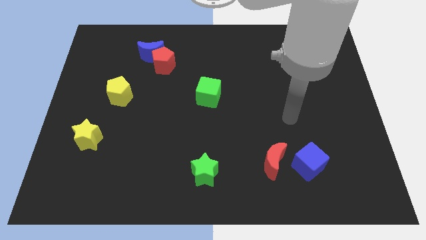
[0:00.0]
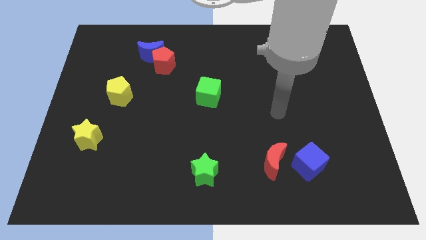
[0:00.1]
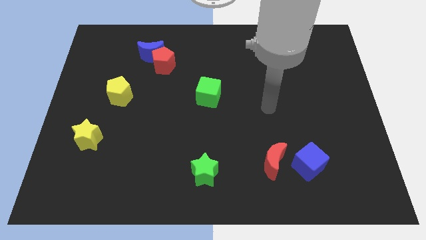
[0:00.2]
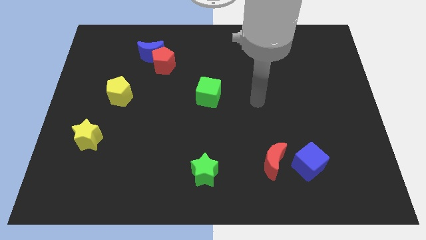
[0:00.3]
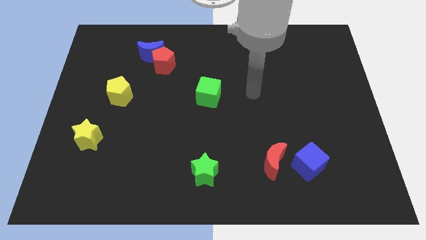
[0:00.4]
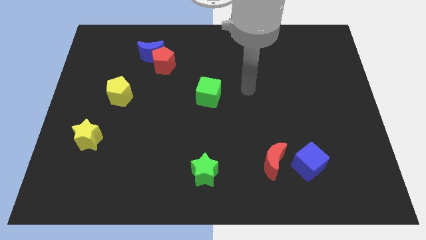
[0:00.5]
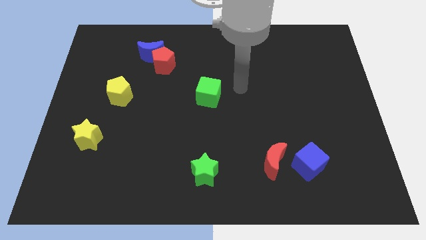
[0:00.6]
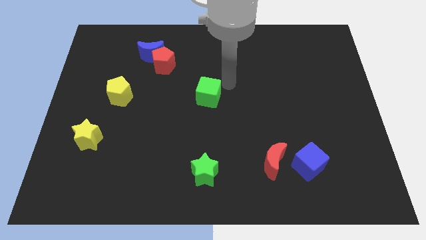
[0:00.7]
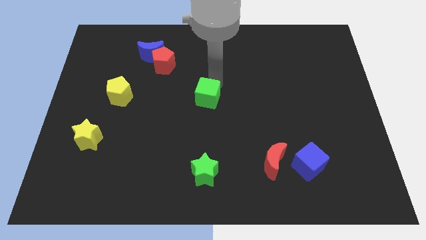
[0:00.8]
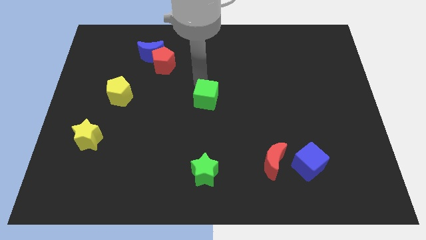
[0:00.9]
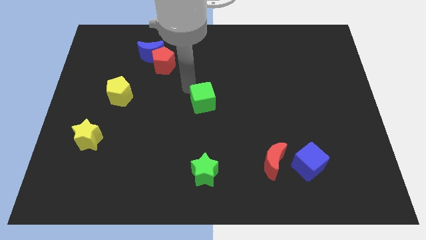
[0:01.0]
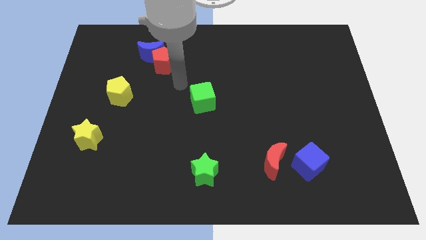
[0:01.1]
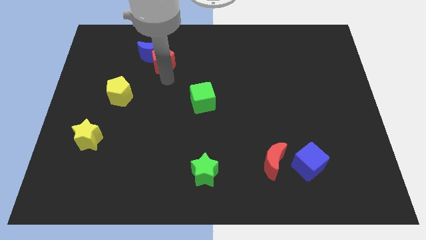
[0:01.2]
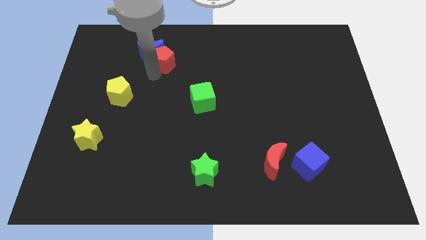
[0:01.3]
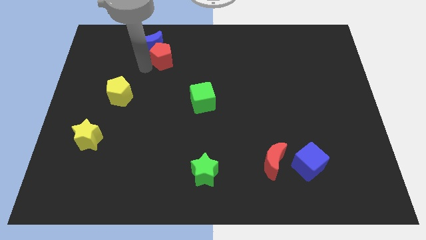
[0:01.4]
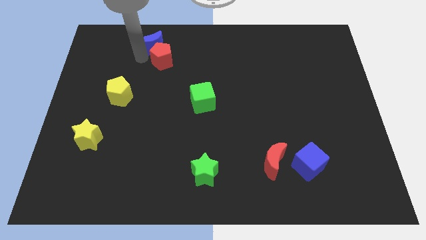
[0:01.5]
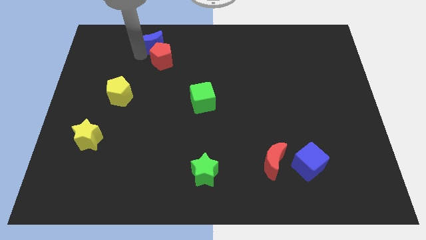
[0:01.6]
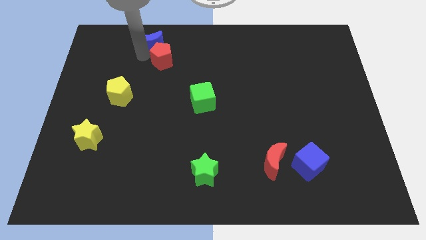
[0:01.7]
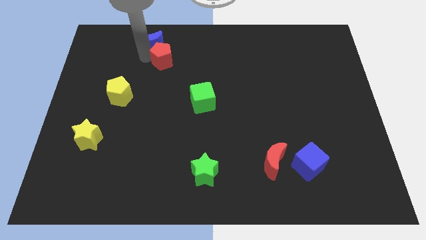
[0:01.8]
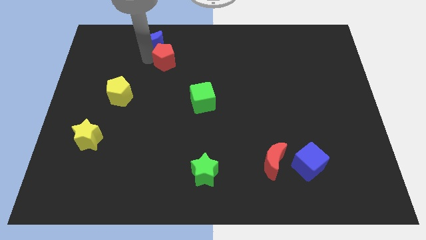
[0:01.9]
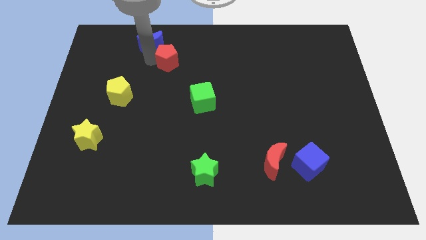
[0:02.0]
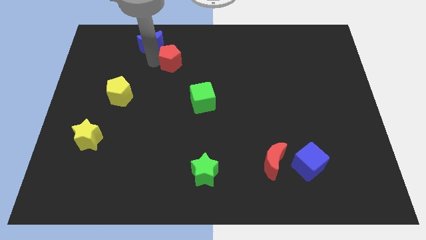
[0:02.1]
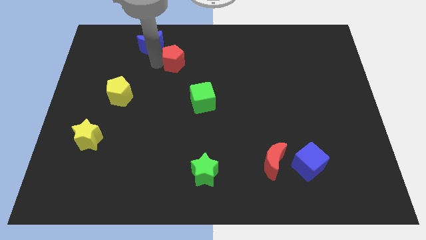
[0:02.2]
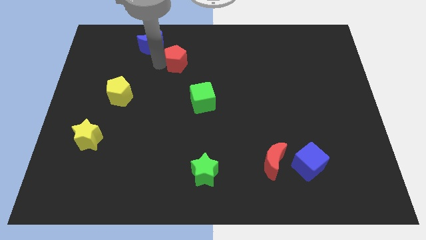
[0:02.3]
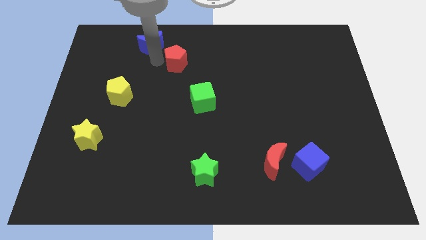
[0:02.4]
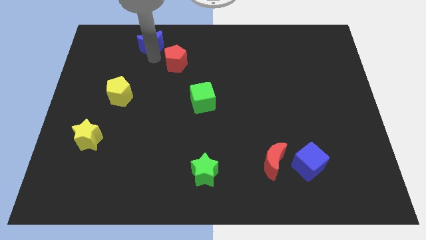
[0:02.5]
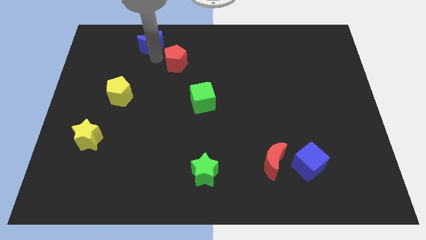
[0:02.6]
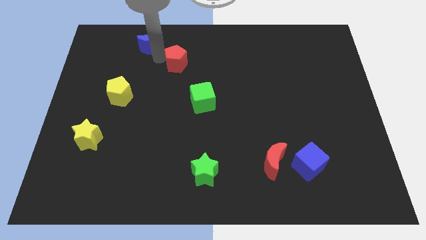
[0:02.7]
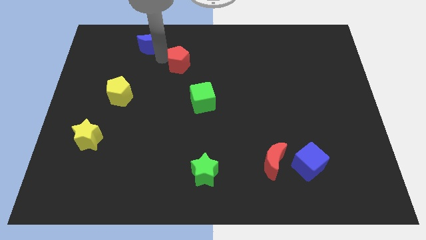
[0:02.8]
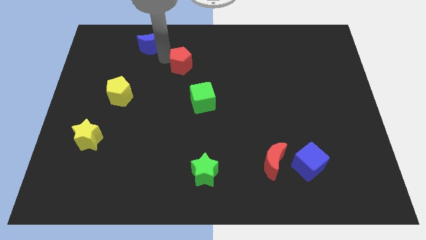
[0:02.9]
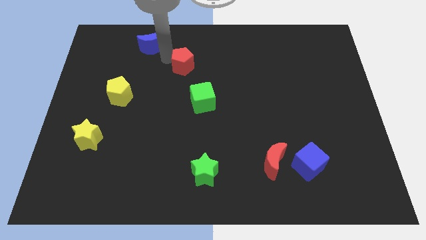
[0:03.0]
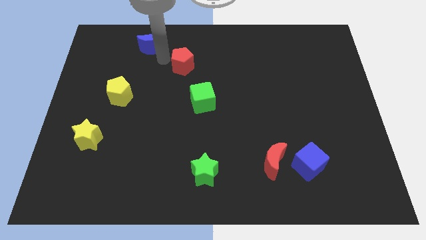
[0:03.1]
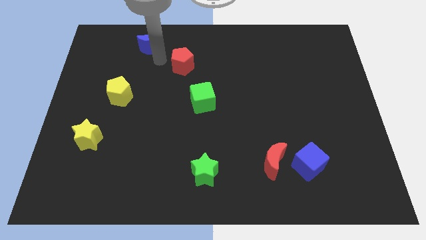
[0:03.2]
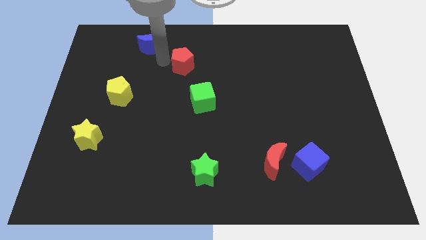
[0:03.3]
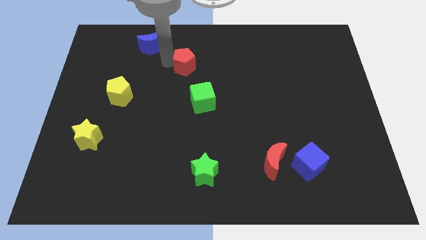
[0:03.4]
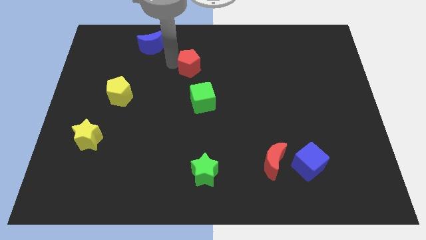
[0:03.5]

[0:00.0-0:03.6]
move the red pentagon right a little

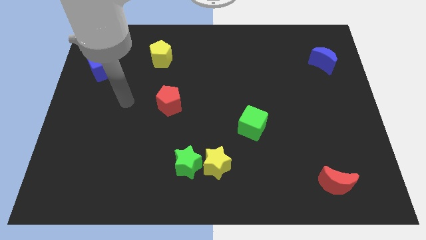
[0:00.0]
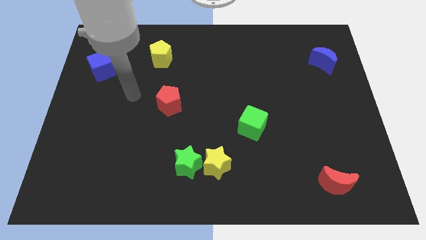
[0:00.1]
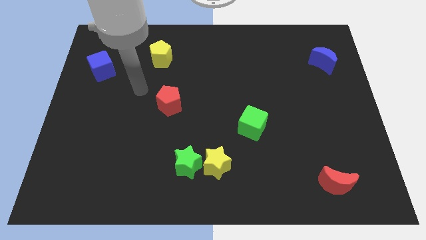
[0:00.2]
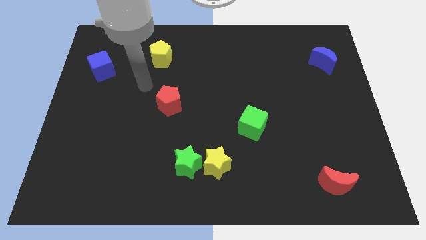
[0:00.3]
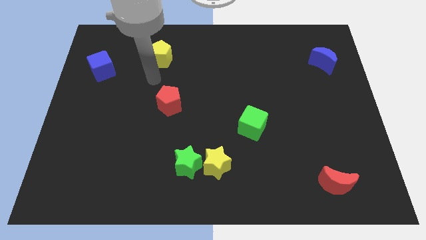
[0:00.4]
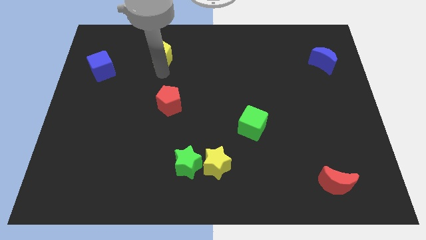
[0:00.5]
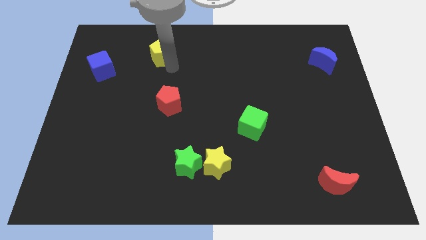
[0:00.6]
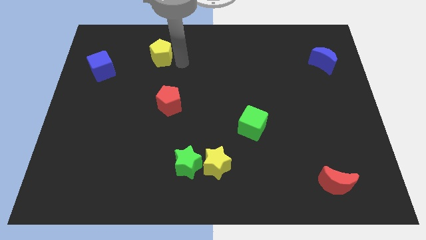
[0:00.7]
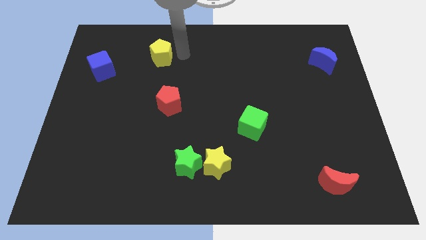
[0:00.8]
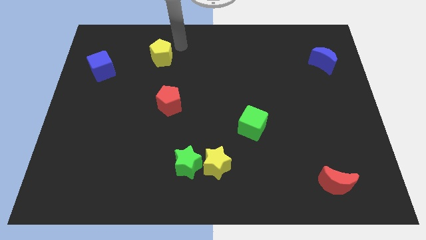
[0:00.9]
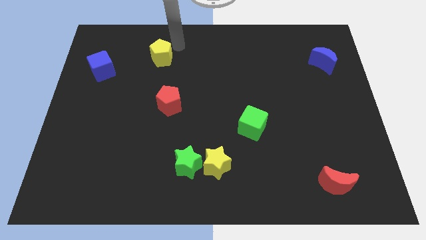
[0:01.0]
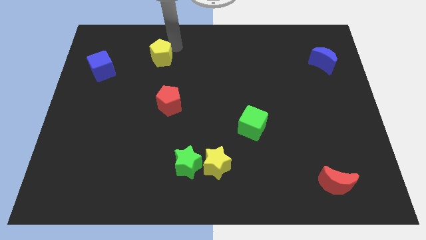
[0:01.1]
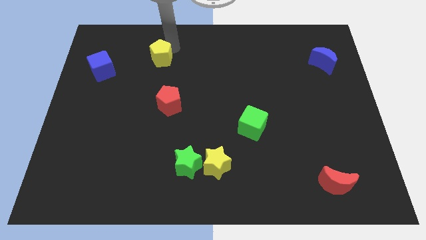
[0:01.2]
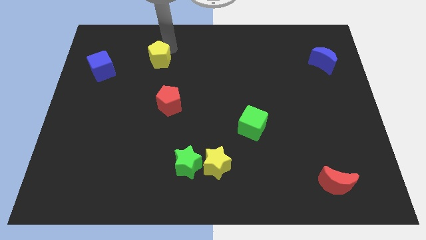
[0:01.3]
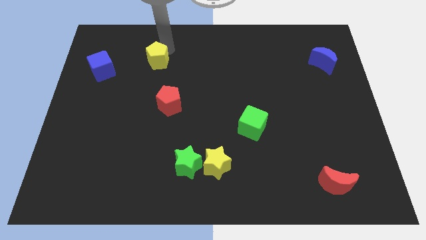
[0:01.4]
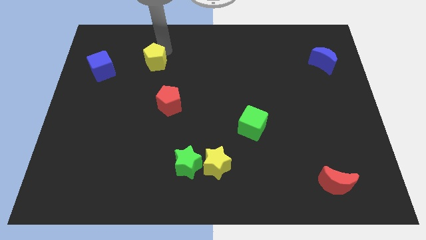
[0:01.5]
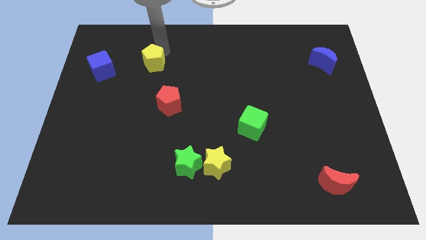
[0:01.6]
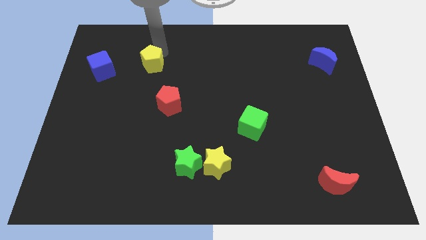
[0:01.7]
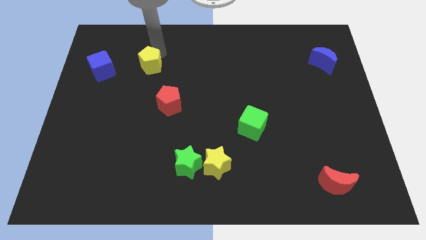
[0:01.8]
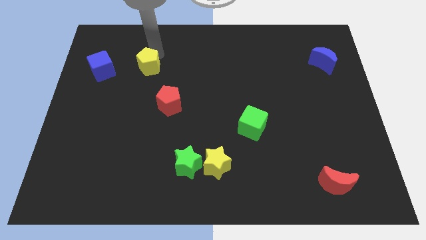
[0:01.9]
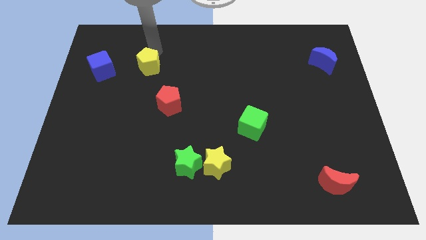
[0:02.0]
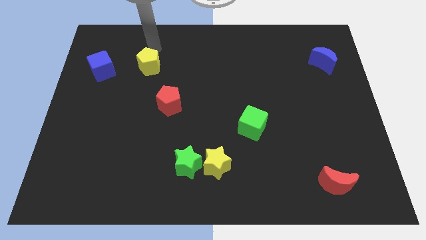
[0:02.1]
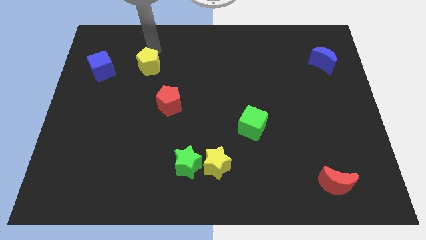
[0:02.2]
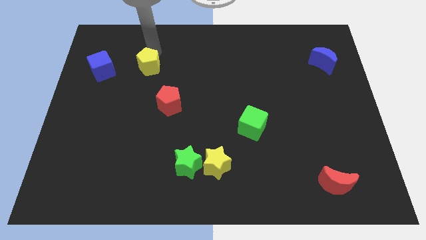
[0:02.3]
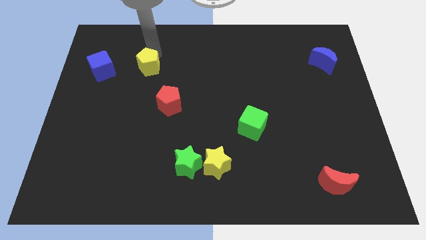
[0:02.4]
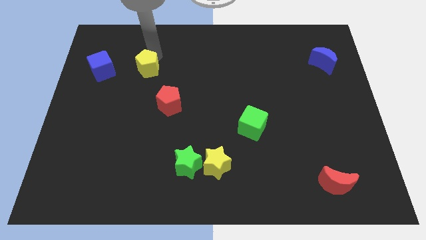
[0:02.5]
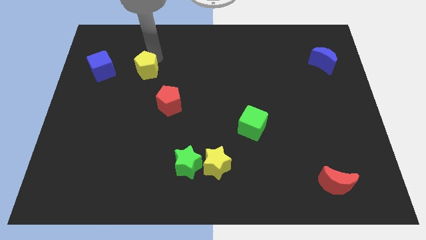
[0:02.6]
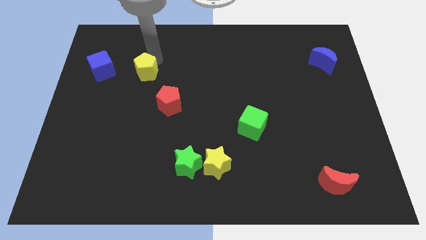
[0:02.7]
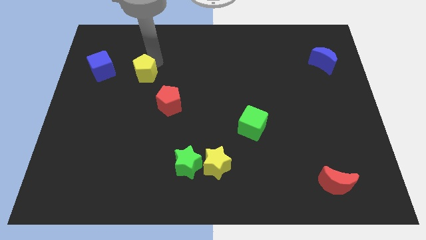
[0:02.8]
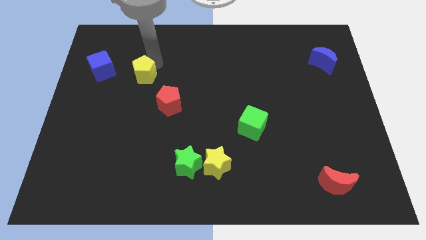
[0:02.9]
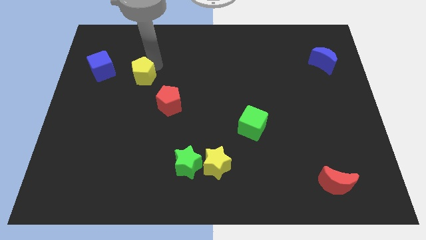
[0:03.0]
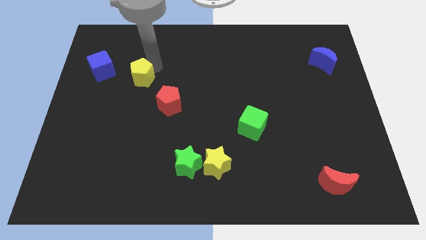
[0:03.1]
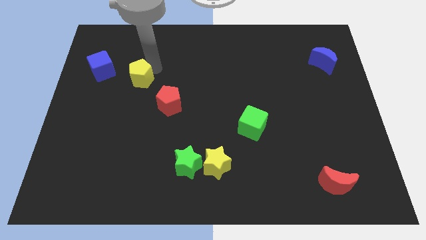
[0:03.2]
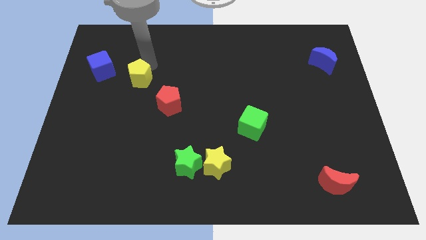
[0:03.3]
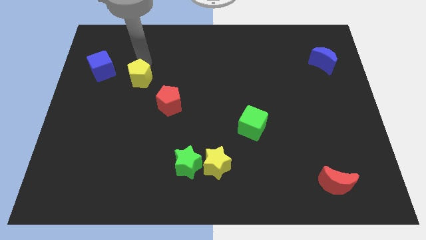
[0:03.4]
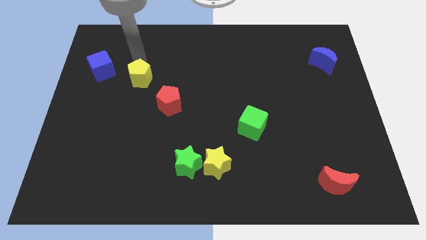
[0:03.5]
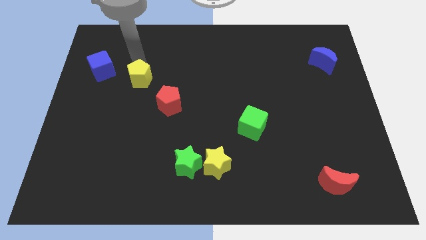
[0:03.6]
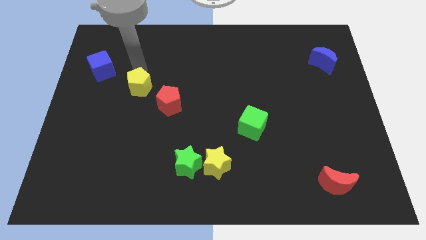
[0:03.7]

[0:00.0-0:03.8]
slide the yellow pentagon downwards a little bit

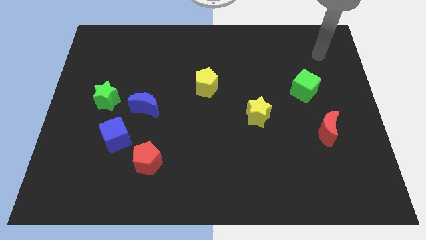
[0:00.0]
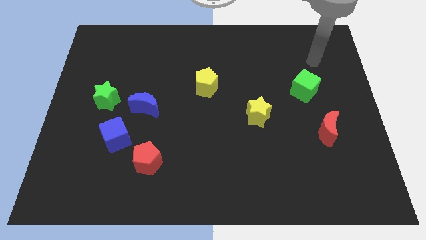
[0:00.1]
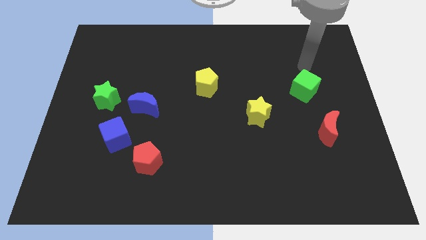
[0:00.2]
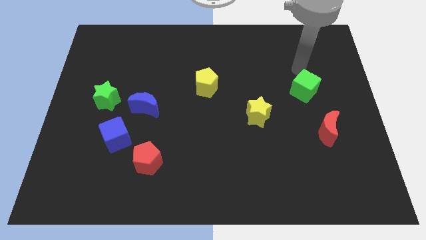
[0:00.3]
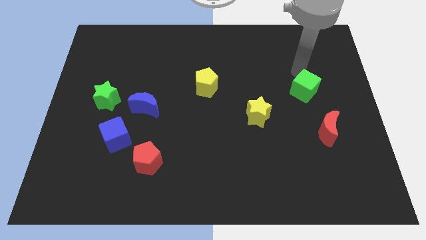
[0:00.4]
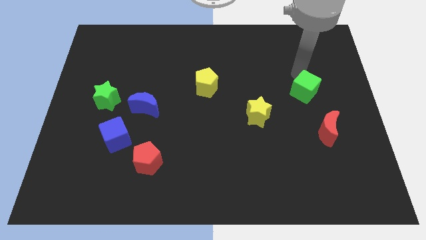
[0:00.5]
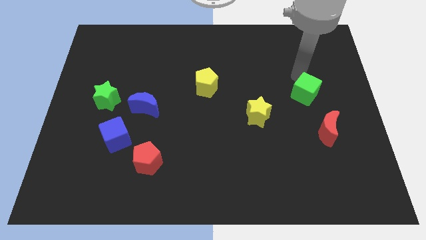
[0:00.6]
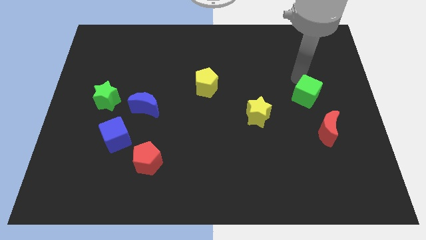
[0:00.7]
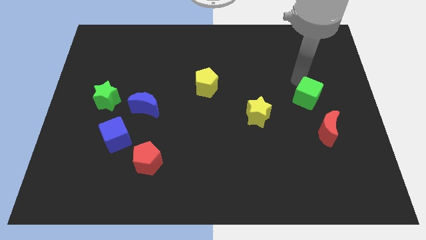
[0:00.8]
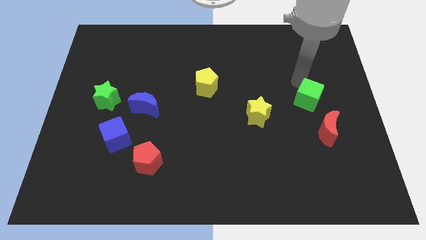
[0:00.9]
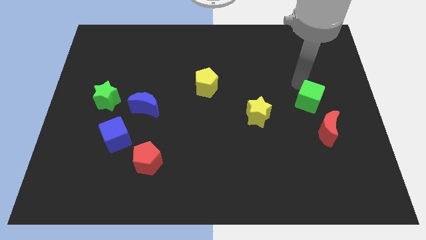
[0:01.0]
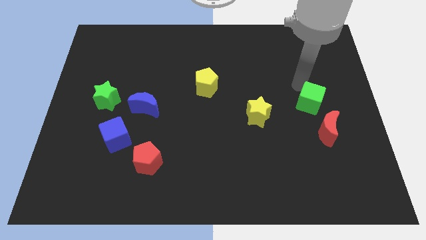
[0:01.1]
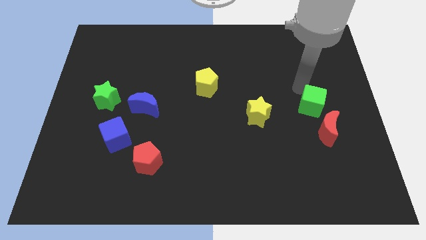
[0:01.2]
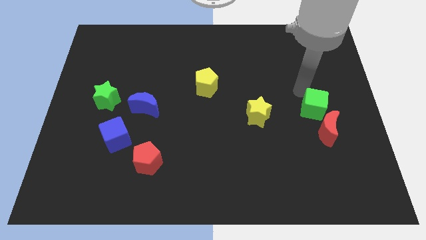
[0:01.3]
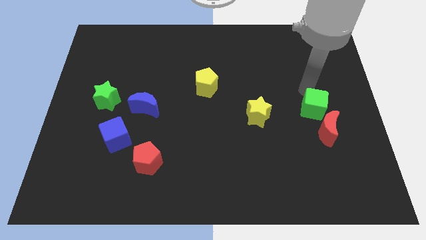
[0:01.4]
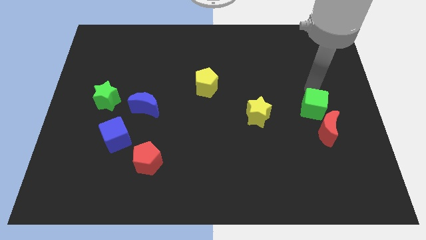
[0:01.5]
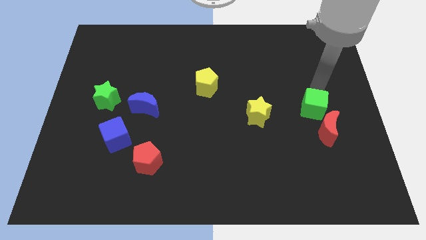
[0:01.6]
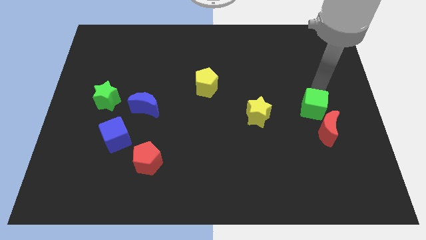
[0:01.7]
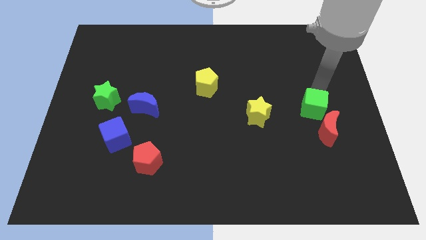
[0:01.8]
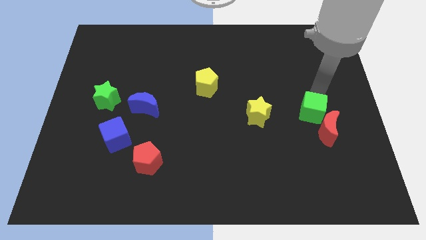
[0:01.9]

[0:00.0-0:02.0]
push the green cube down somewhat
